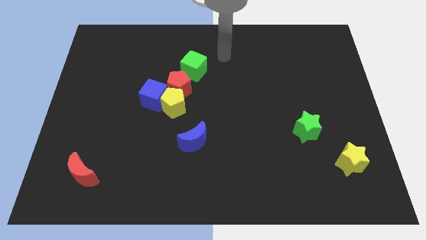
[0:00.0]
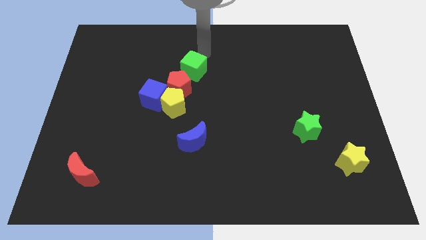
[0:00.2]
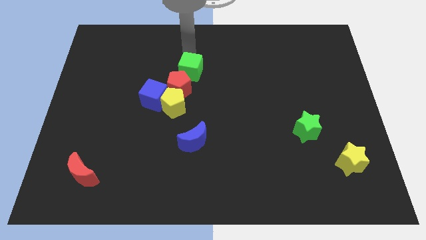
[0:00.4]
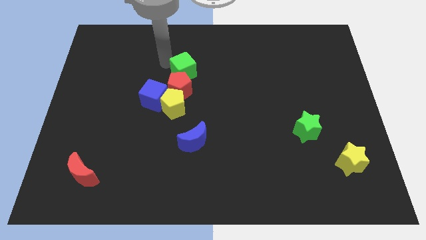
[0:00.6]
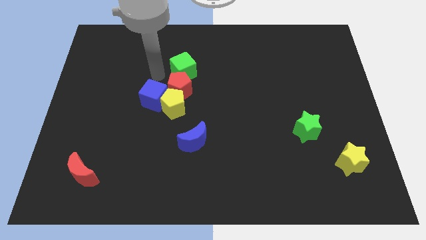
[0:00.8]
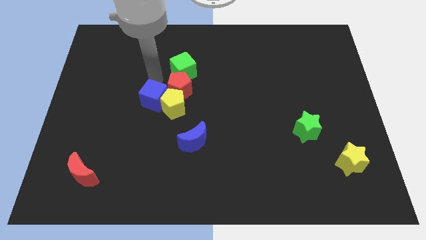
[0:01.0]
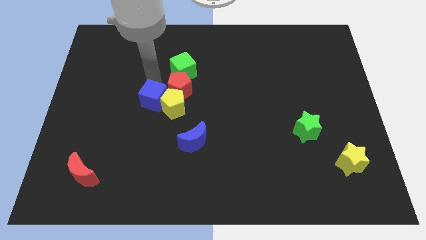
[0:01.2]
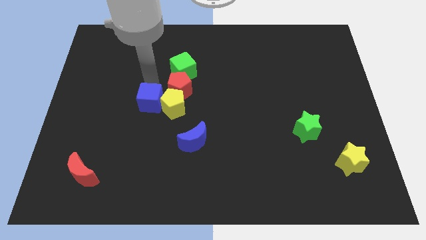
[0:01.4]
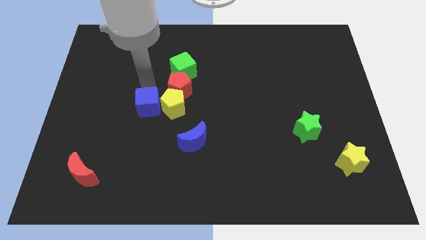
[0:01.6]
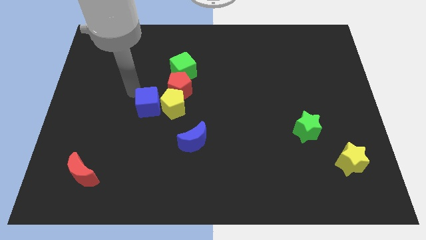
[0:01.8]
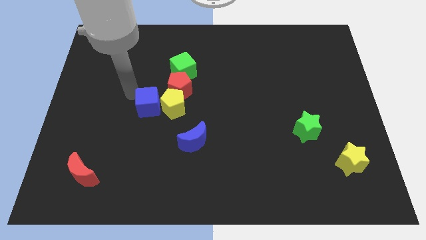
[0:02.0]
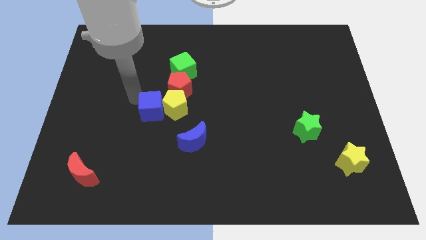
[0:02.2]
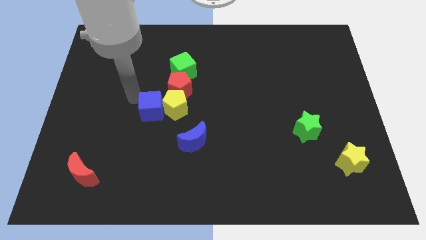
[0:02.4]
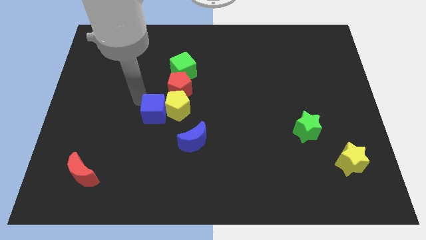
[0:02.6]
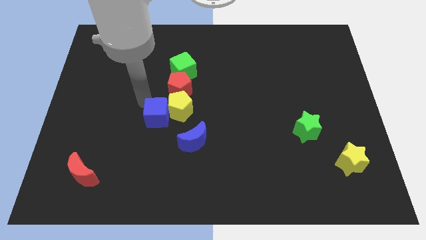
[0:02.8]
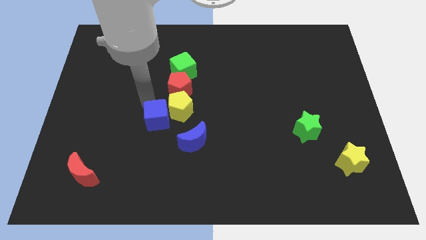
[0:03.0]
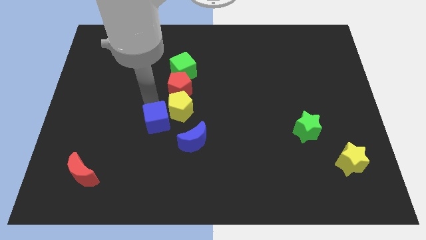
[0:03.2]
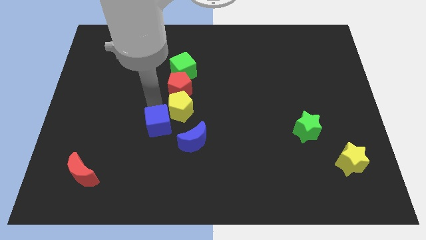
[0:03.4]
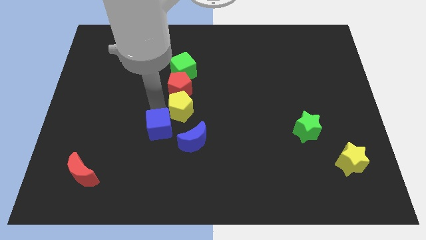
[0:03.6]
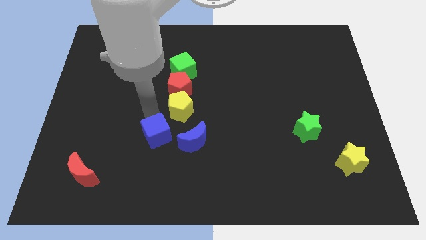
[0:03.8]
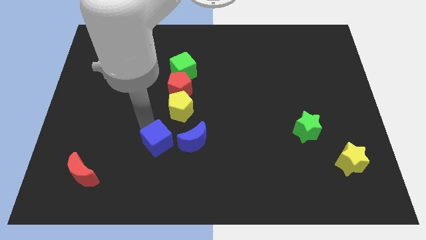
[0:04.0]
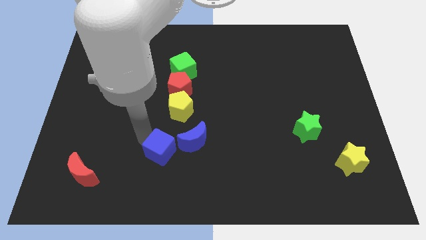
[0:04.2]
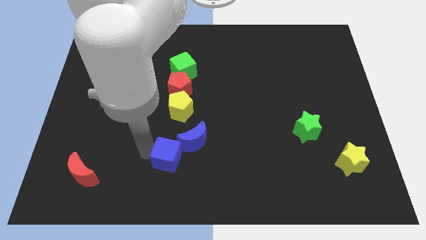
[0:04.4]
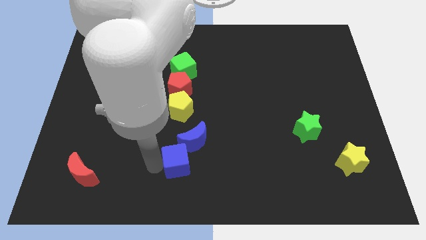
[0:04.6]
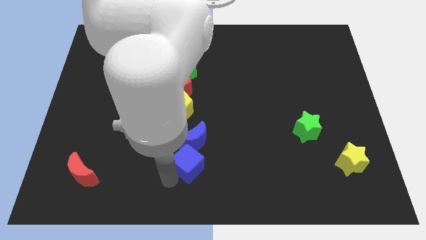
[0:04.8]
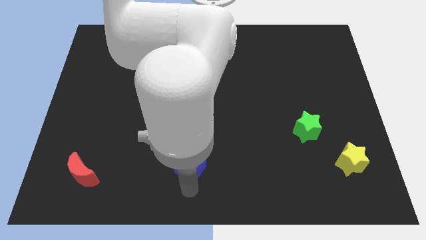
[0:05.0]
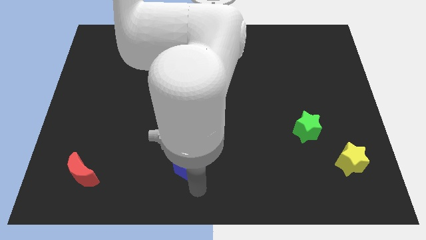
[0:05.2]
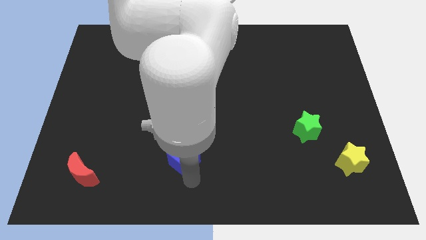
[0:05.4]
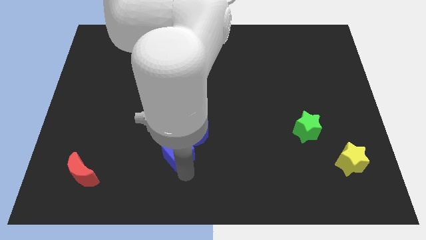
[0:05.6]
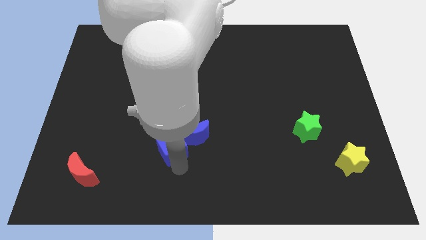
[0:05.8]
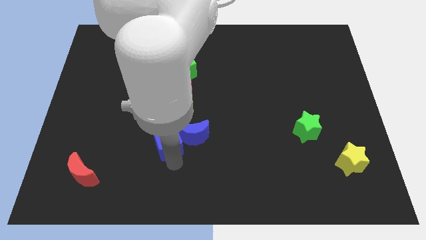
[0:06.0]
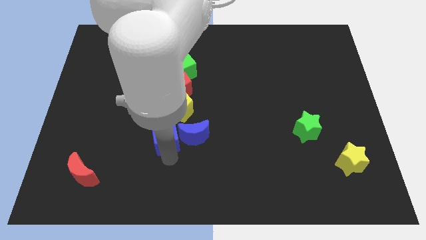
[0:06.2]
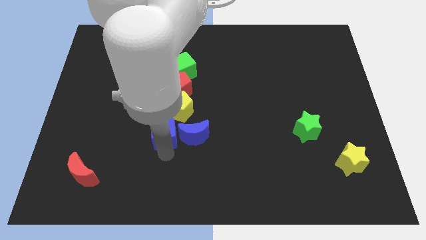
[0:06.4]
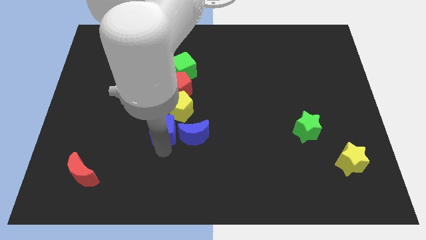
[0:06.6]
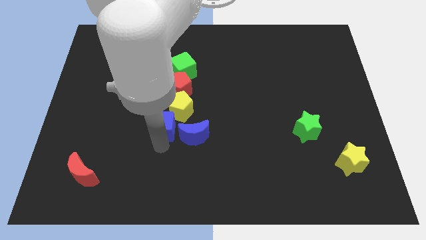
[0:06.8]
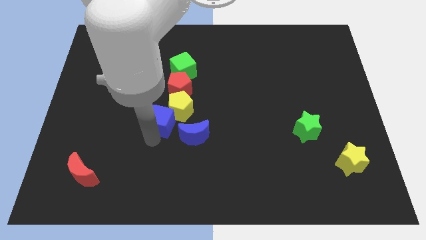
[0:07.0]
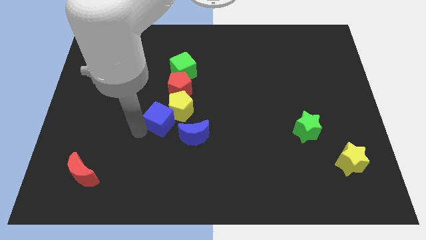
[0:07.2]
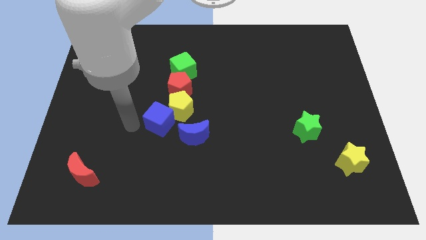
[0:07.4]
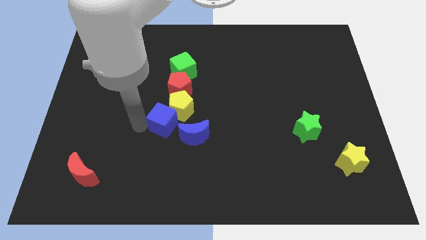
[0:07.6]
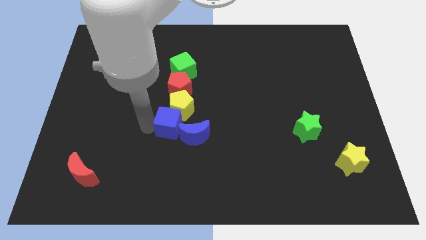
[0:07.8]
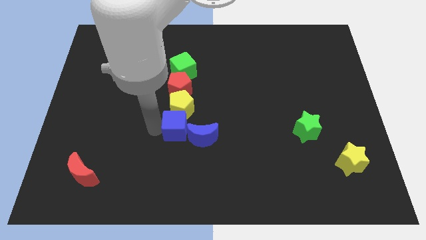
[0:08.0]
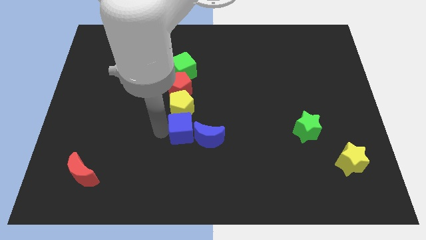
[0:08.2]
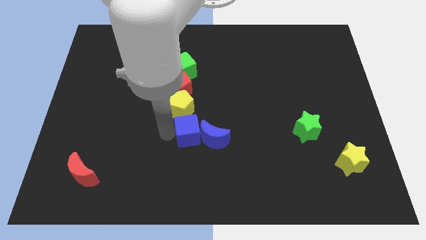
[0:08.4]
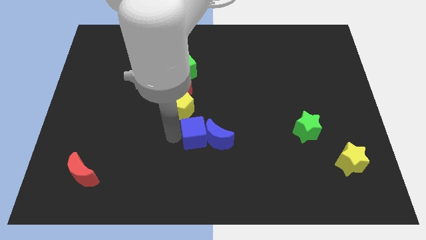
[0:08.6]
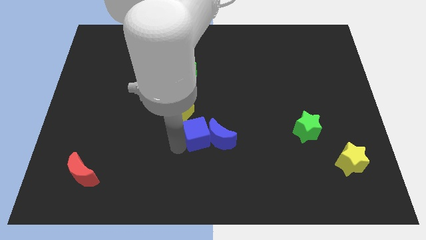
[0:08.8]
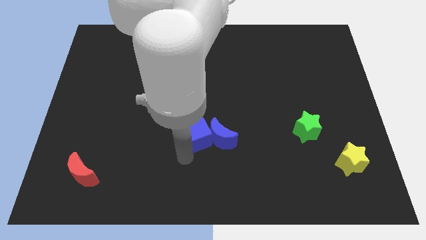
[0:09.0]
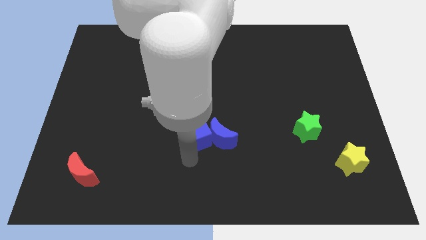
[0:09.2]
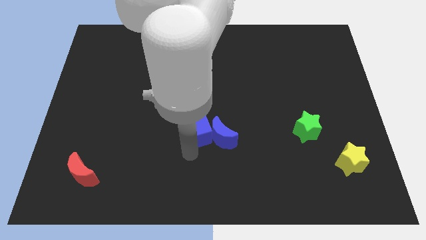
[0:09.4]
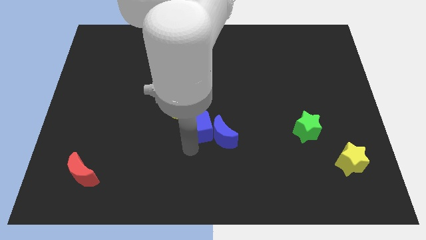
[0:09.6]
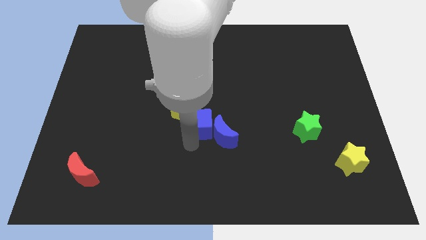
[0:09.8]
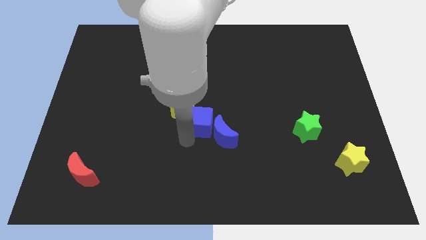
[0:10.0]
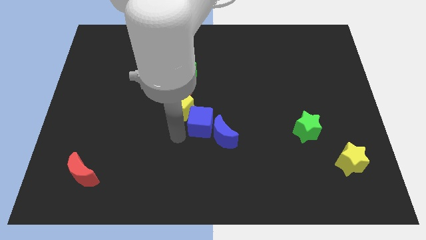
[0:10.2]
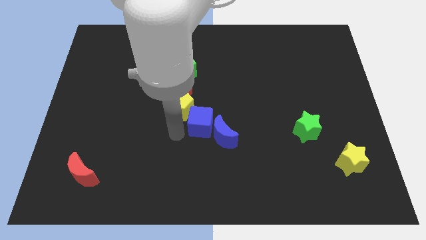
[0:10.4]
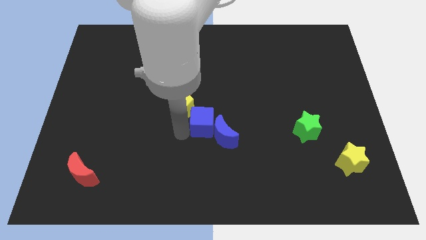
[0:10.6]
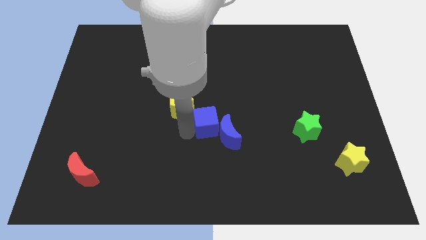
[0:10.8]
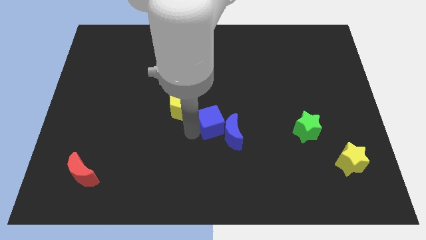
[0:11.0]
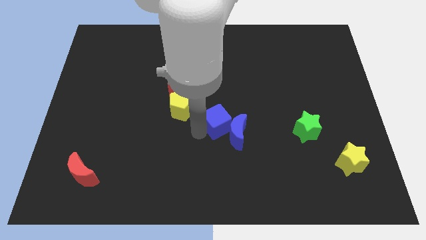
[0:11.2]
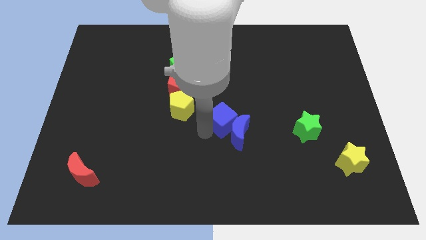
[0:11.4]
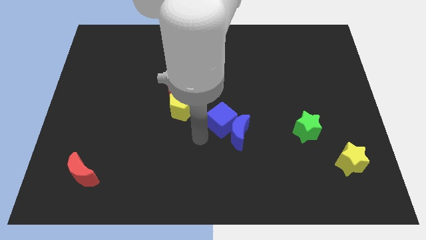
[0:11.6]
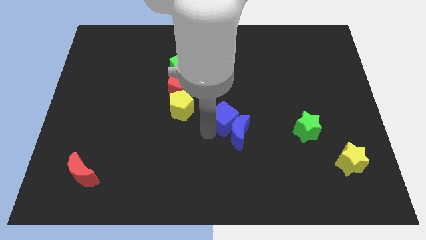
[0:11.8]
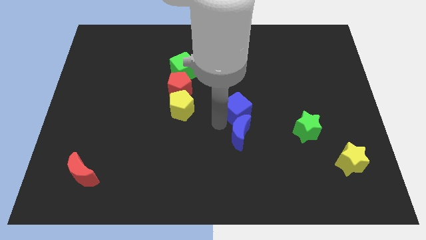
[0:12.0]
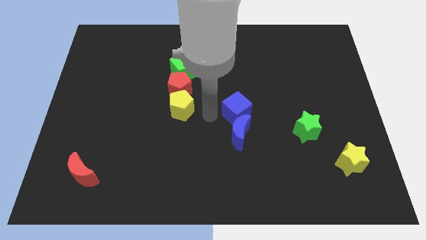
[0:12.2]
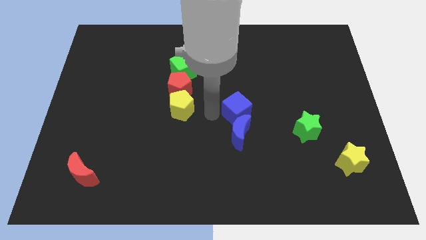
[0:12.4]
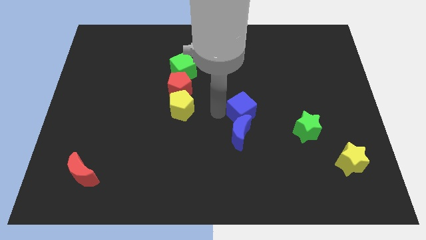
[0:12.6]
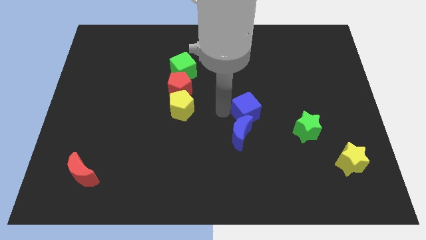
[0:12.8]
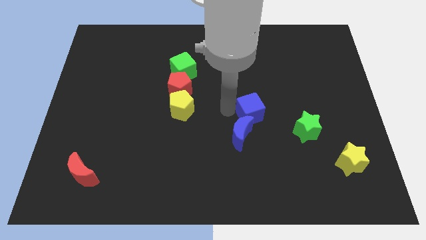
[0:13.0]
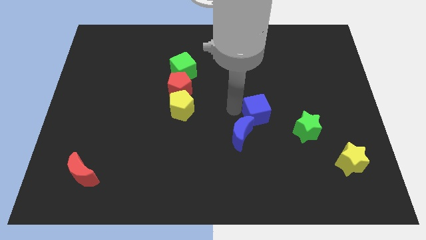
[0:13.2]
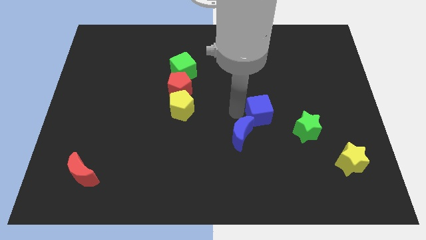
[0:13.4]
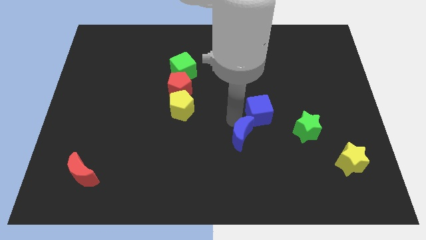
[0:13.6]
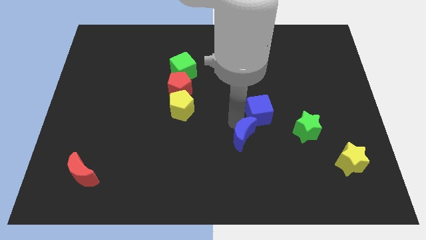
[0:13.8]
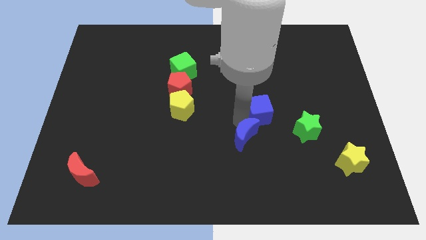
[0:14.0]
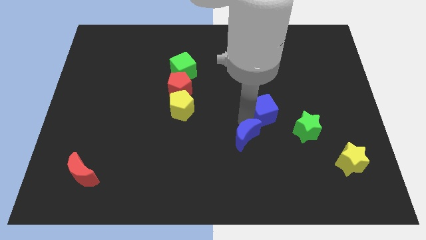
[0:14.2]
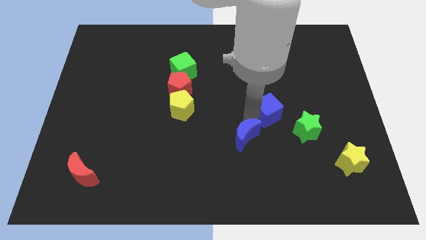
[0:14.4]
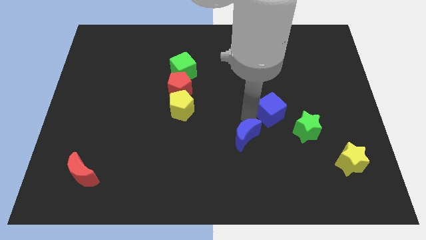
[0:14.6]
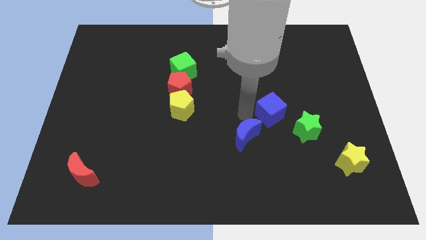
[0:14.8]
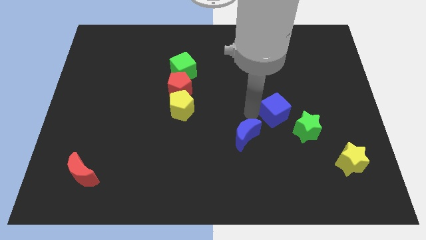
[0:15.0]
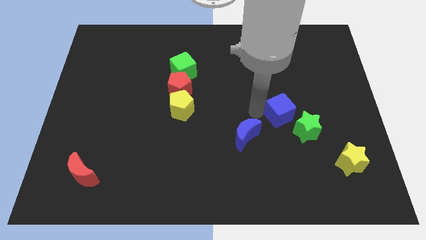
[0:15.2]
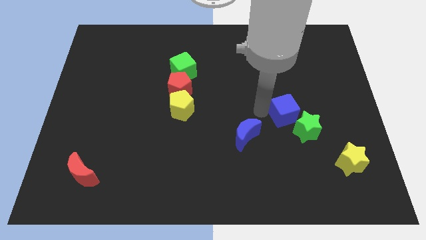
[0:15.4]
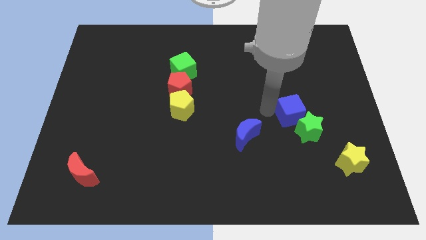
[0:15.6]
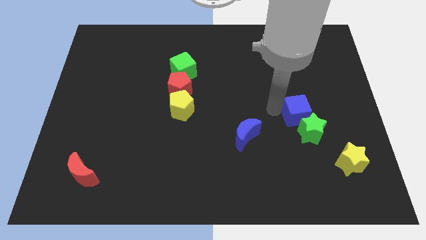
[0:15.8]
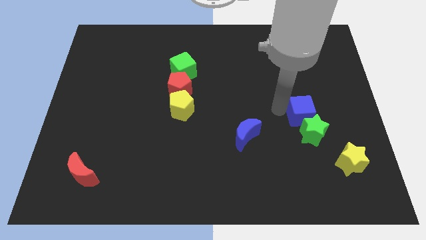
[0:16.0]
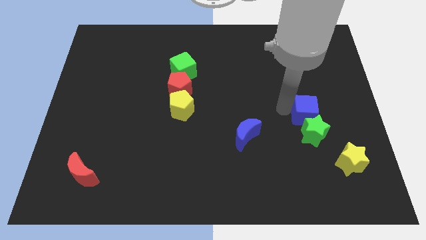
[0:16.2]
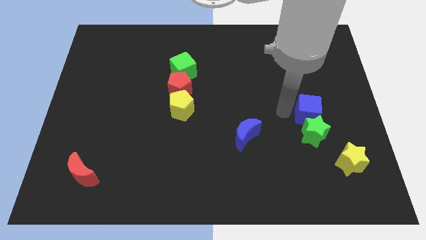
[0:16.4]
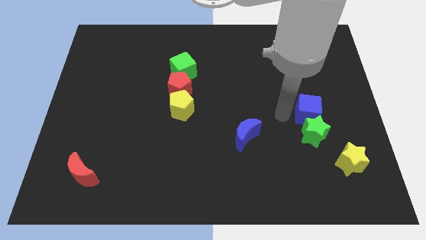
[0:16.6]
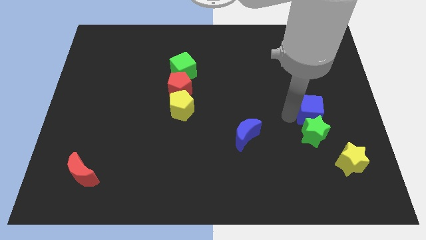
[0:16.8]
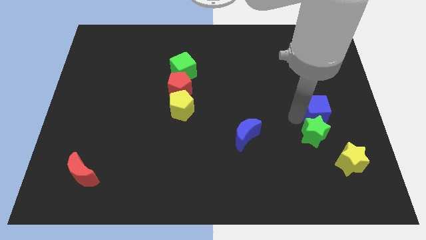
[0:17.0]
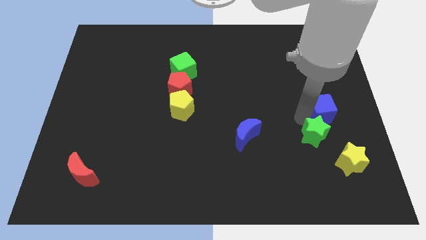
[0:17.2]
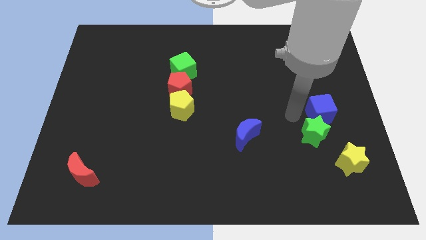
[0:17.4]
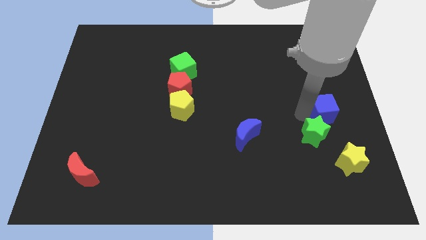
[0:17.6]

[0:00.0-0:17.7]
push the blue cube to the right side of the board
